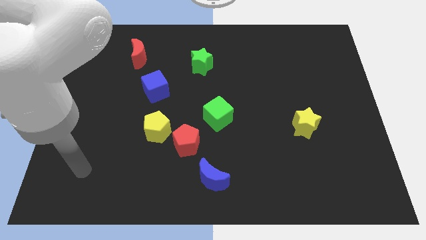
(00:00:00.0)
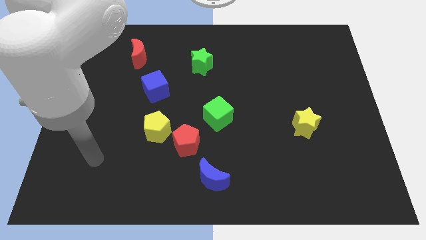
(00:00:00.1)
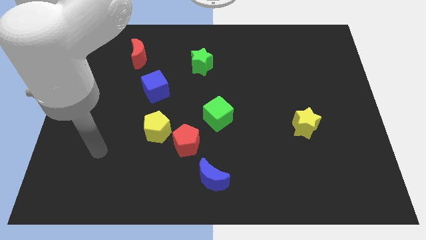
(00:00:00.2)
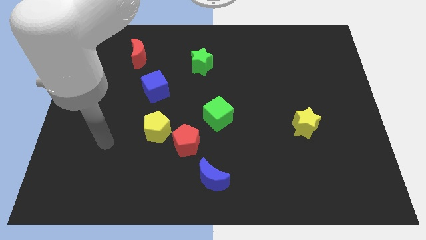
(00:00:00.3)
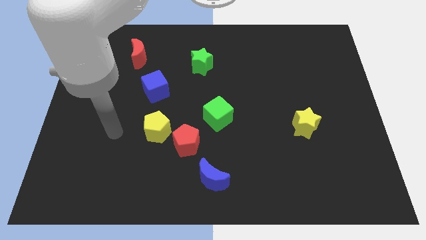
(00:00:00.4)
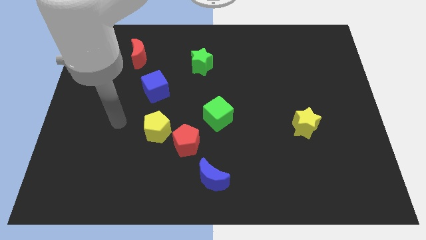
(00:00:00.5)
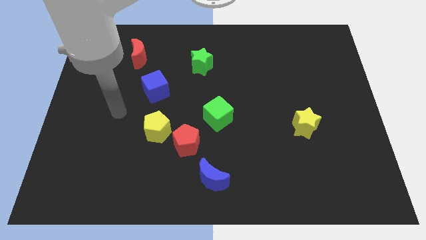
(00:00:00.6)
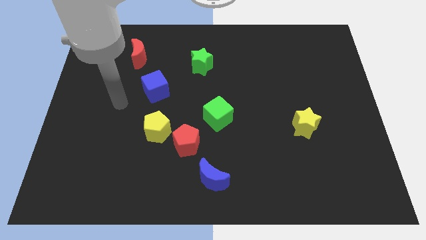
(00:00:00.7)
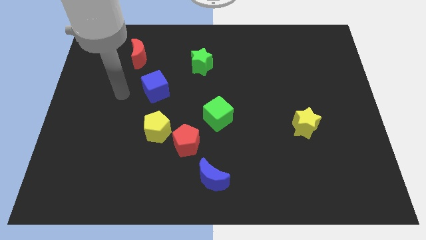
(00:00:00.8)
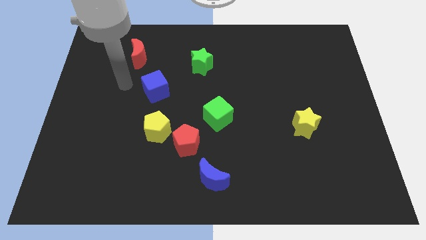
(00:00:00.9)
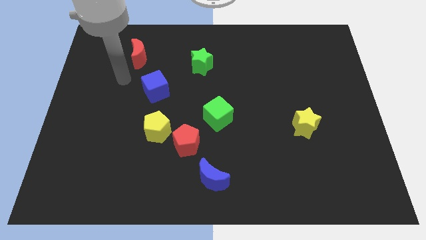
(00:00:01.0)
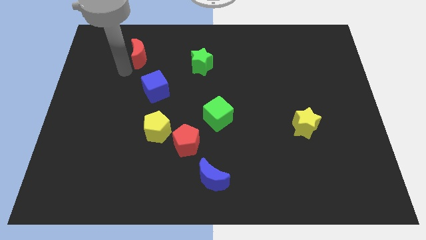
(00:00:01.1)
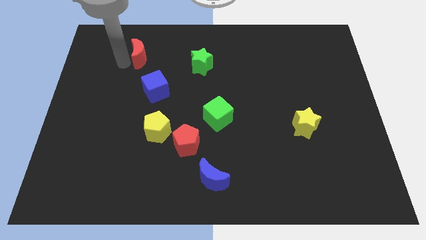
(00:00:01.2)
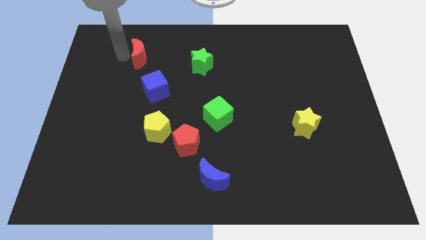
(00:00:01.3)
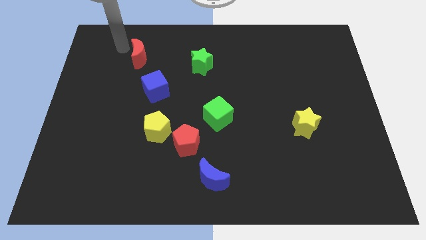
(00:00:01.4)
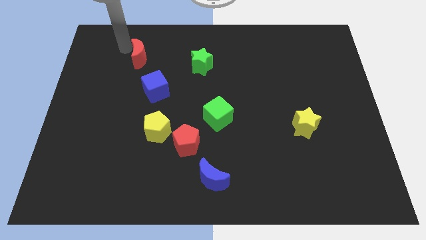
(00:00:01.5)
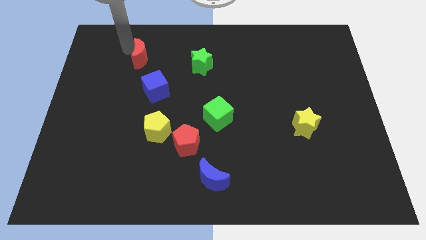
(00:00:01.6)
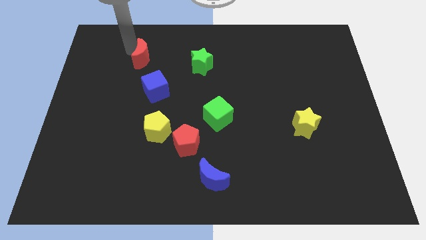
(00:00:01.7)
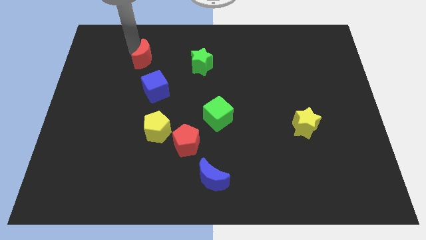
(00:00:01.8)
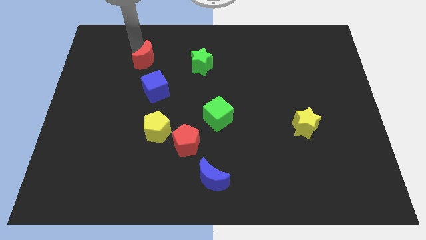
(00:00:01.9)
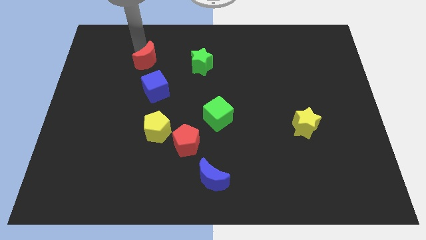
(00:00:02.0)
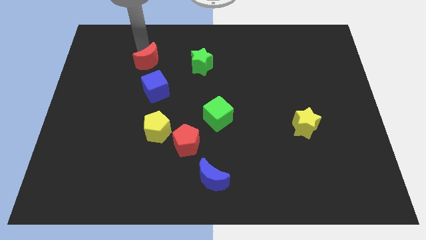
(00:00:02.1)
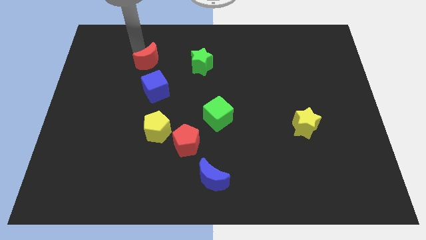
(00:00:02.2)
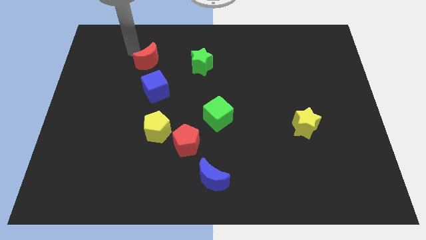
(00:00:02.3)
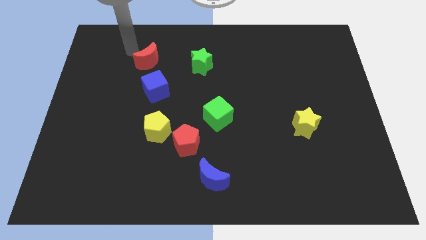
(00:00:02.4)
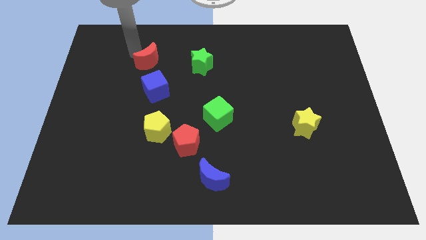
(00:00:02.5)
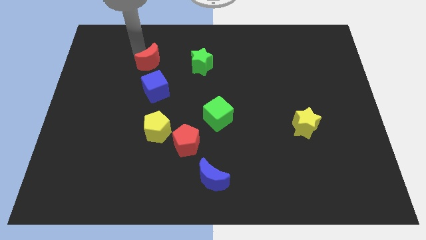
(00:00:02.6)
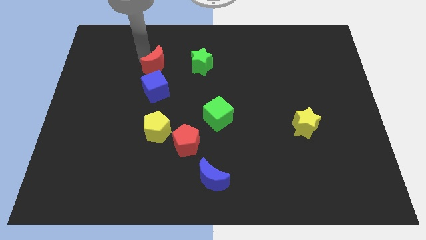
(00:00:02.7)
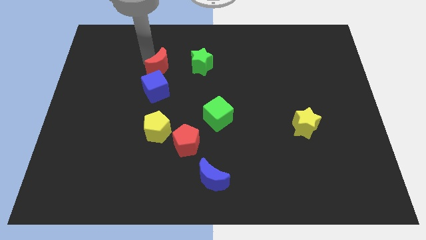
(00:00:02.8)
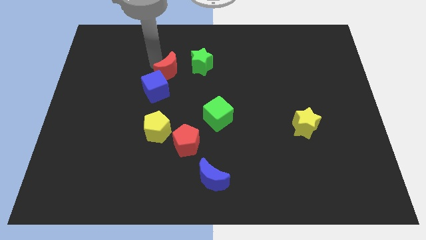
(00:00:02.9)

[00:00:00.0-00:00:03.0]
slide the red moon down and to the right diagonally a little bit

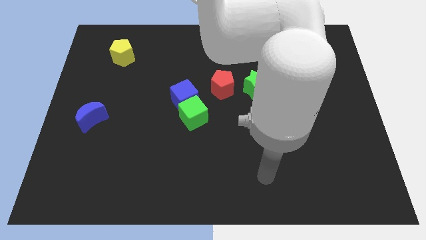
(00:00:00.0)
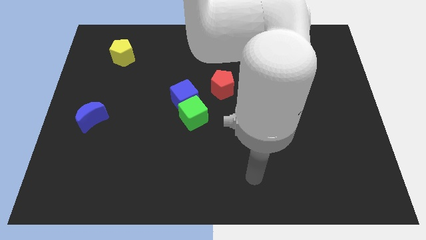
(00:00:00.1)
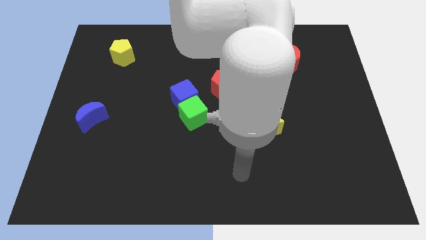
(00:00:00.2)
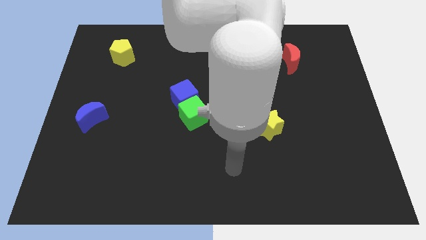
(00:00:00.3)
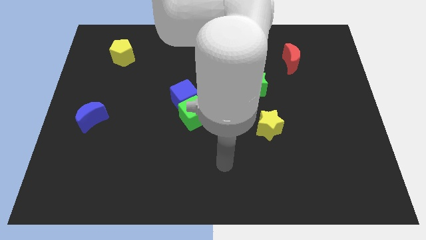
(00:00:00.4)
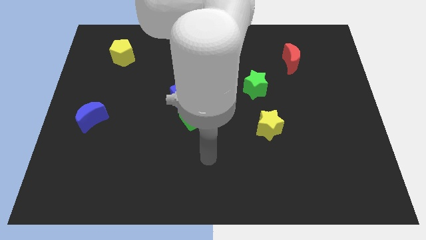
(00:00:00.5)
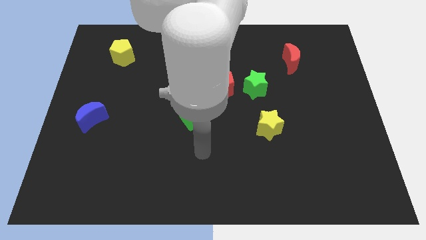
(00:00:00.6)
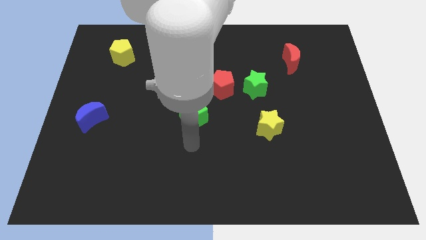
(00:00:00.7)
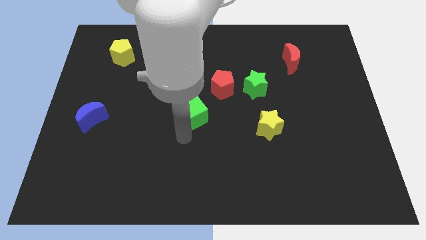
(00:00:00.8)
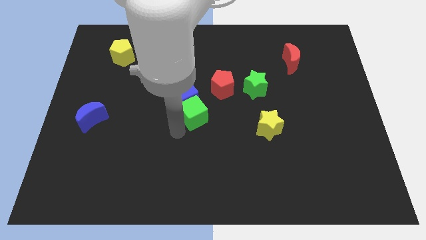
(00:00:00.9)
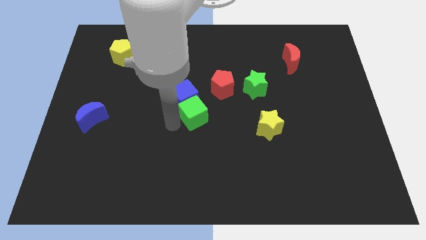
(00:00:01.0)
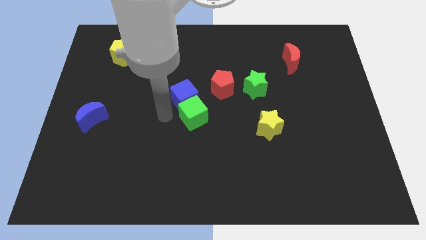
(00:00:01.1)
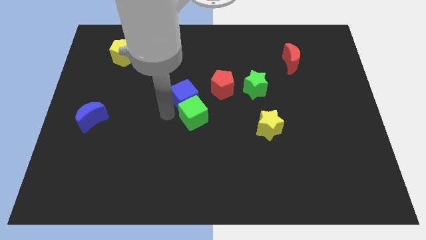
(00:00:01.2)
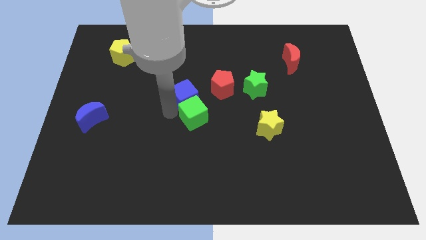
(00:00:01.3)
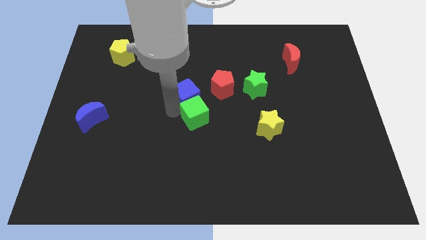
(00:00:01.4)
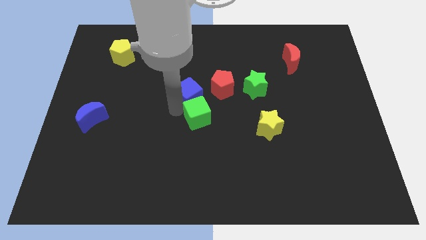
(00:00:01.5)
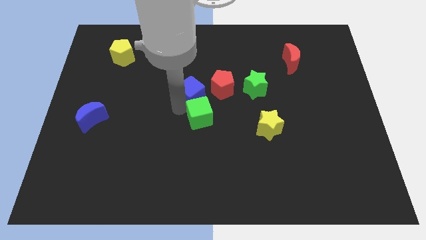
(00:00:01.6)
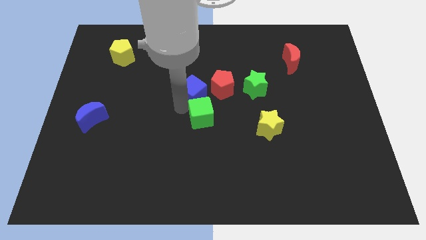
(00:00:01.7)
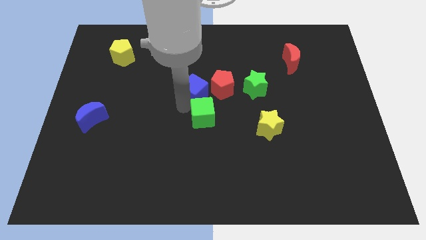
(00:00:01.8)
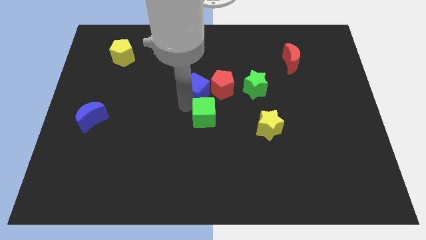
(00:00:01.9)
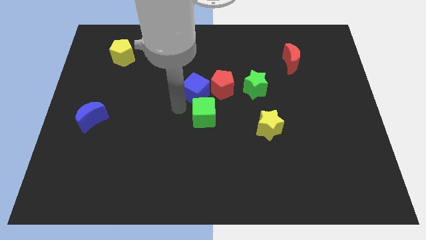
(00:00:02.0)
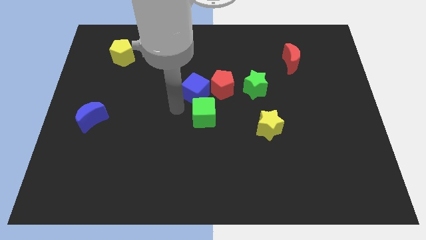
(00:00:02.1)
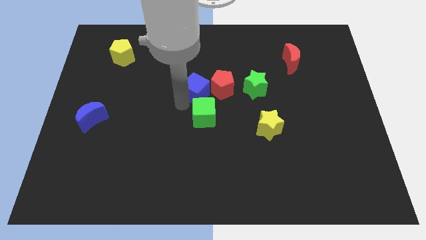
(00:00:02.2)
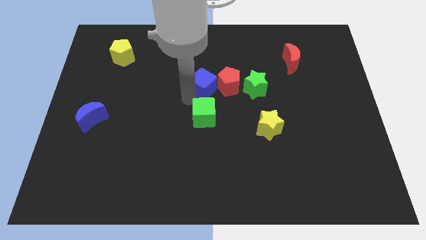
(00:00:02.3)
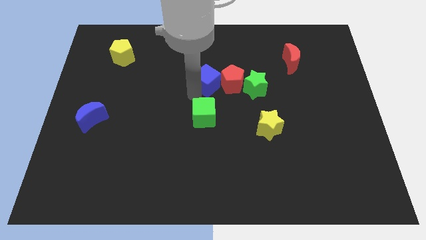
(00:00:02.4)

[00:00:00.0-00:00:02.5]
push the blue cube a little bit up and then right

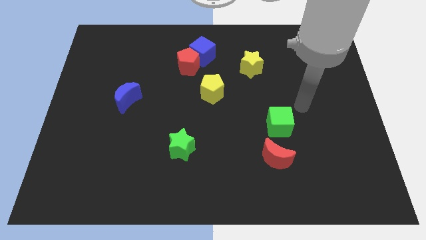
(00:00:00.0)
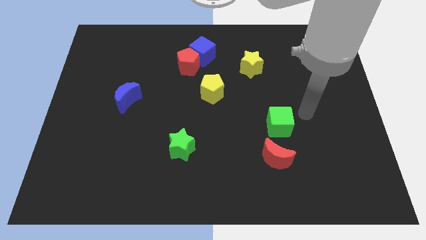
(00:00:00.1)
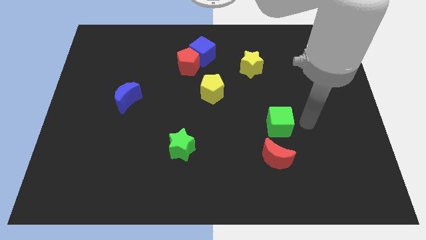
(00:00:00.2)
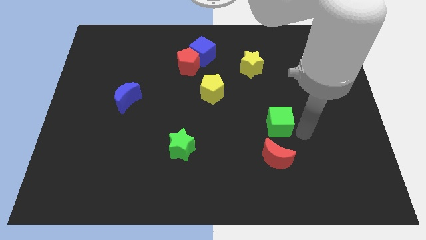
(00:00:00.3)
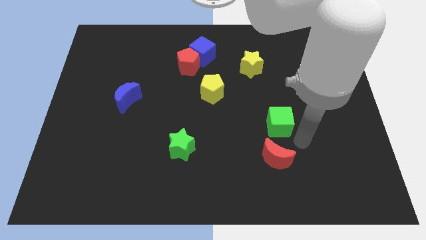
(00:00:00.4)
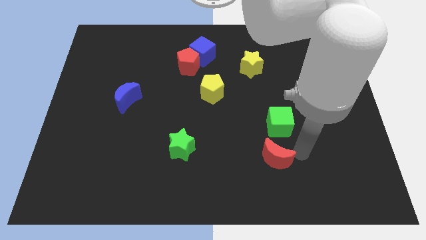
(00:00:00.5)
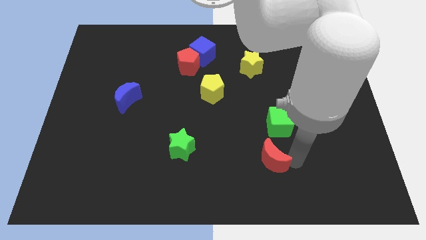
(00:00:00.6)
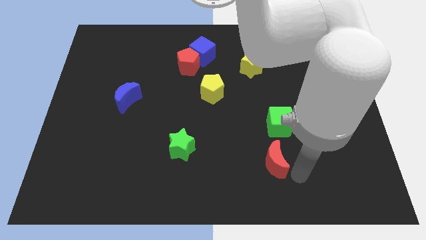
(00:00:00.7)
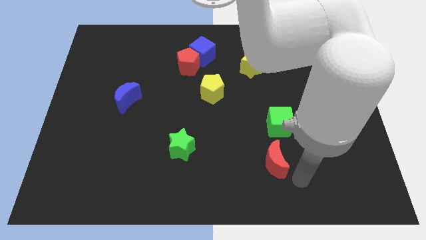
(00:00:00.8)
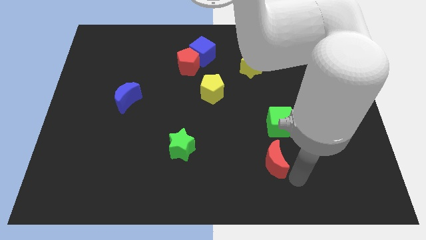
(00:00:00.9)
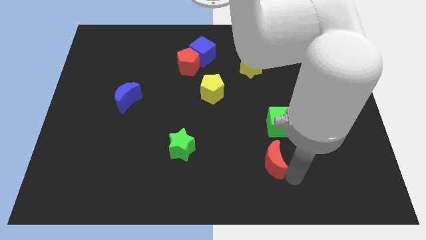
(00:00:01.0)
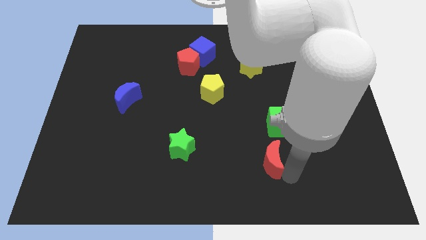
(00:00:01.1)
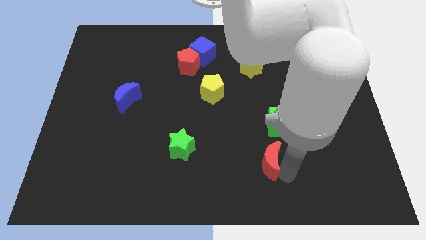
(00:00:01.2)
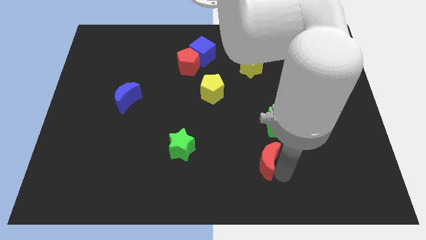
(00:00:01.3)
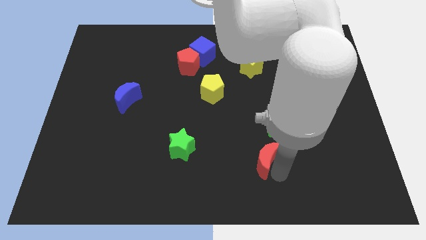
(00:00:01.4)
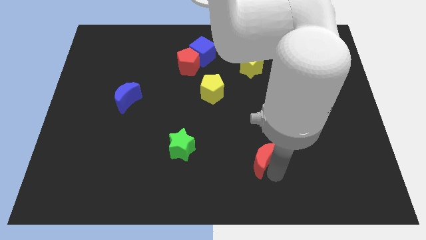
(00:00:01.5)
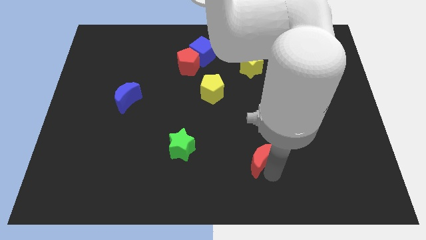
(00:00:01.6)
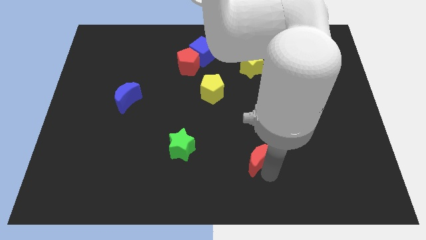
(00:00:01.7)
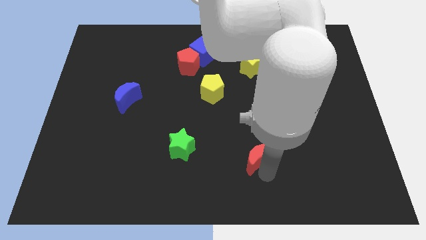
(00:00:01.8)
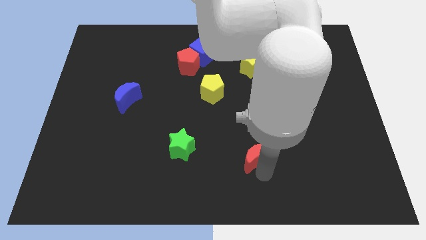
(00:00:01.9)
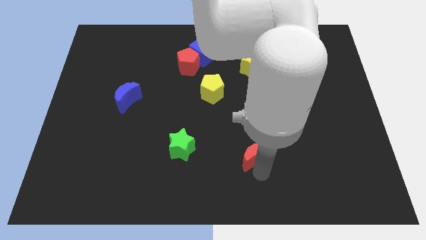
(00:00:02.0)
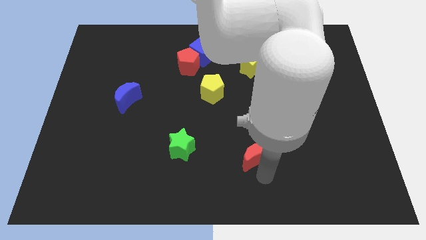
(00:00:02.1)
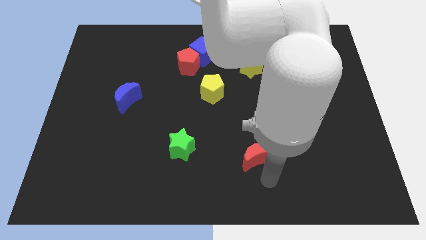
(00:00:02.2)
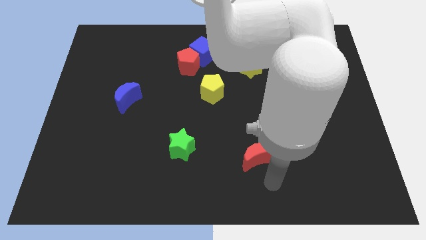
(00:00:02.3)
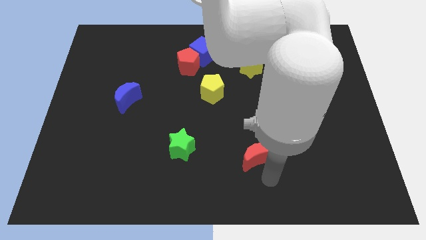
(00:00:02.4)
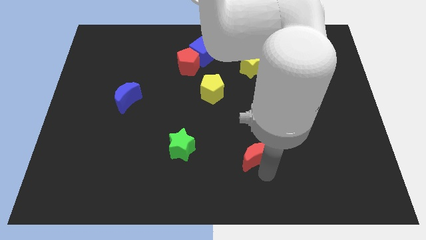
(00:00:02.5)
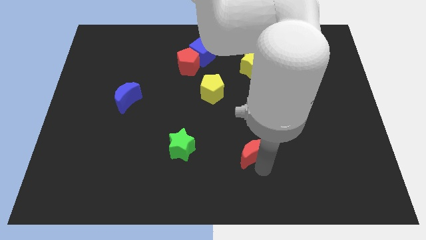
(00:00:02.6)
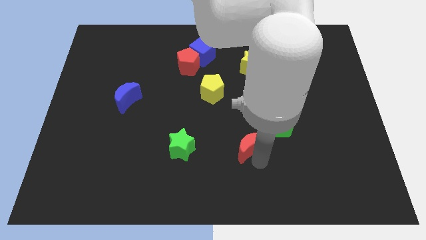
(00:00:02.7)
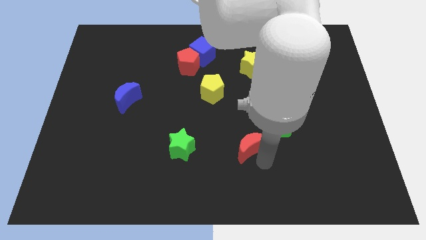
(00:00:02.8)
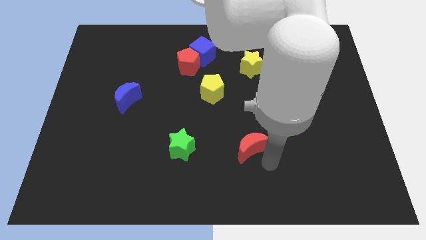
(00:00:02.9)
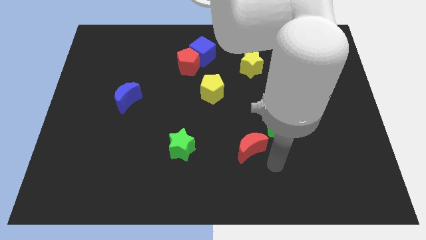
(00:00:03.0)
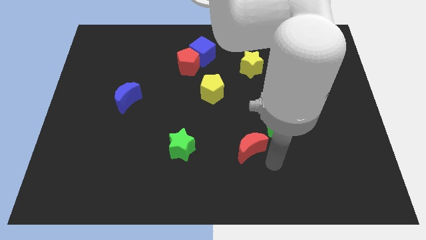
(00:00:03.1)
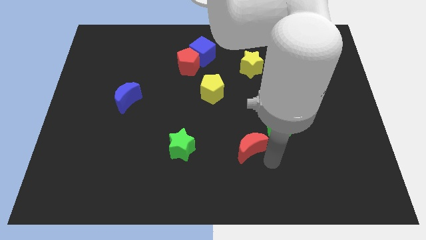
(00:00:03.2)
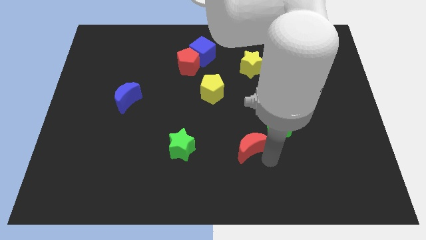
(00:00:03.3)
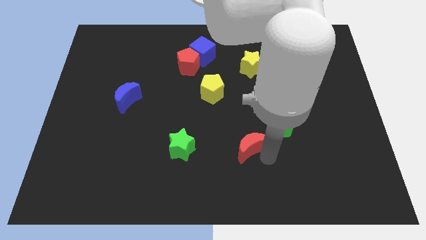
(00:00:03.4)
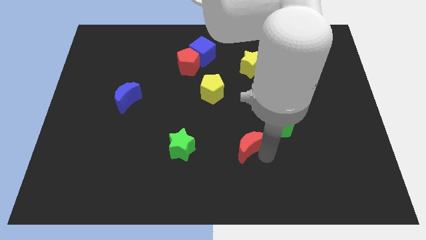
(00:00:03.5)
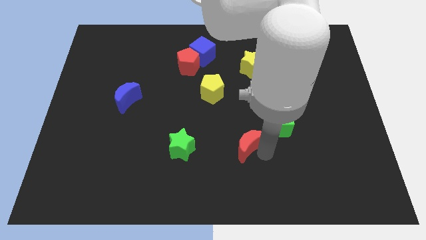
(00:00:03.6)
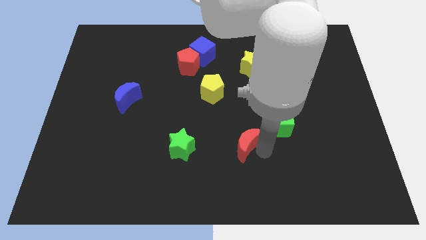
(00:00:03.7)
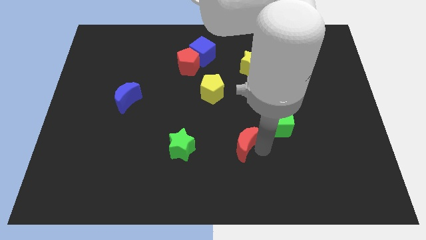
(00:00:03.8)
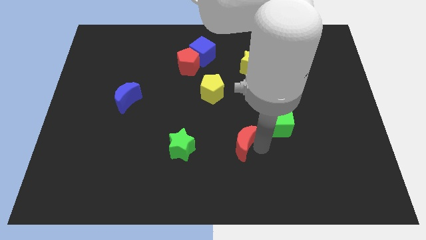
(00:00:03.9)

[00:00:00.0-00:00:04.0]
slide the red moon a bit up and to the left
